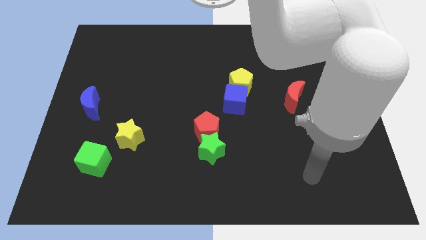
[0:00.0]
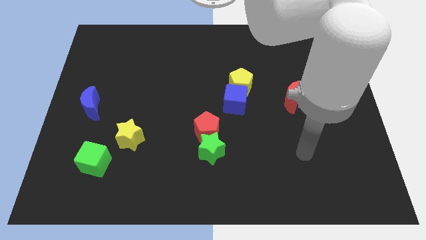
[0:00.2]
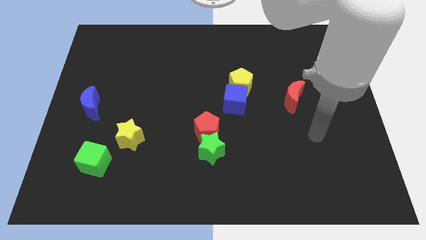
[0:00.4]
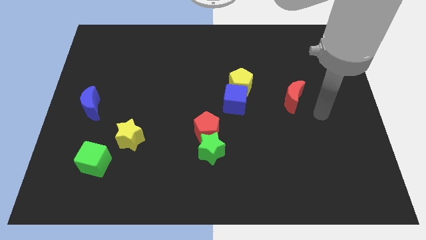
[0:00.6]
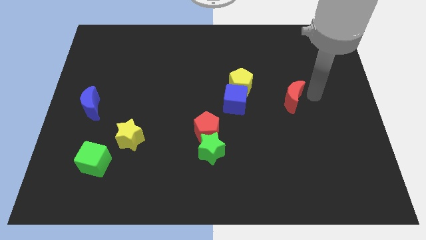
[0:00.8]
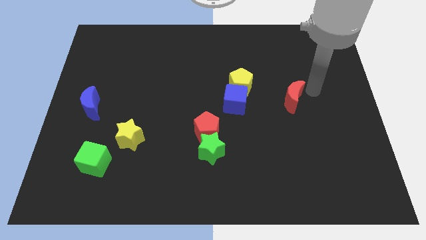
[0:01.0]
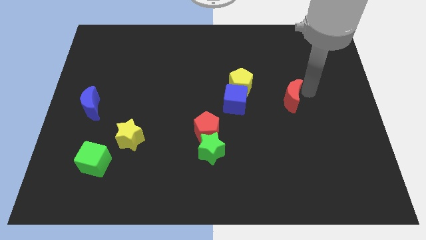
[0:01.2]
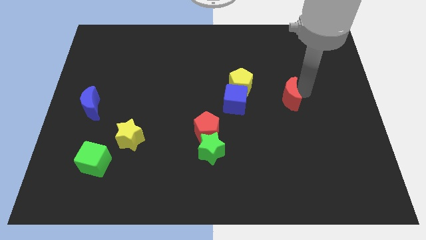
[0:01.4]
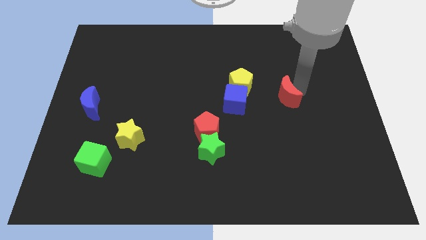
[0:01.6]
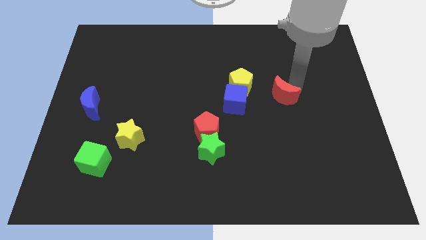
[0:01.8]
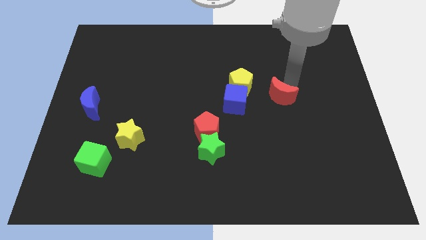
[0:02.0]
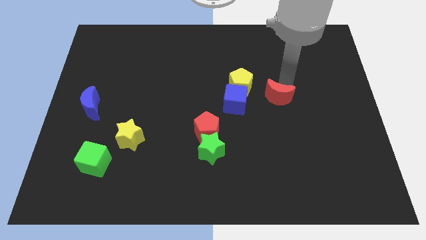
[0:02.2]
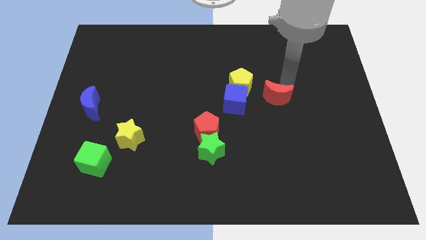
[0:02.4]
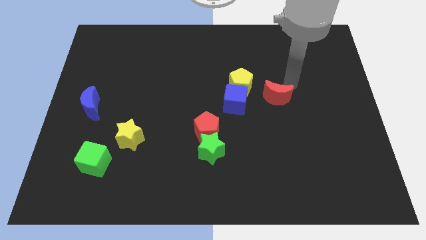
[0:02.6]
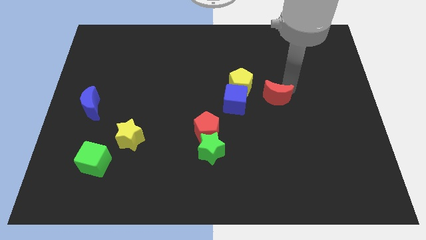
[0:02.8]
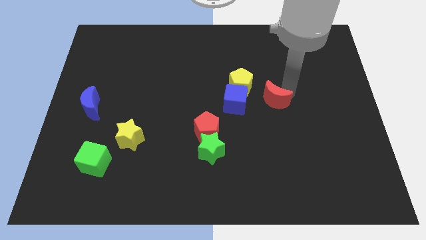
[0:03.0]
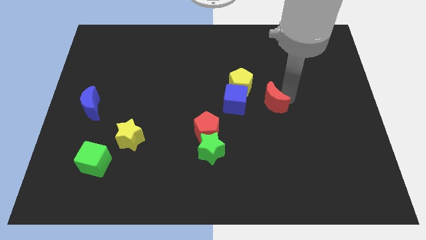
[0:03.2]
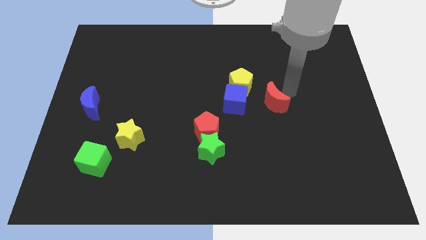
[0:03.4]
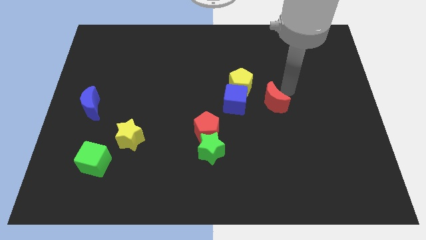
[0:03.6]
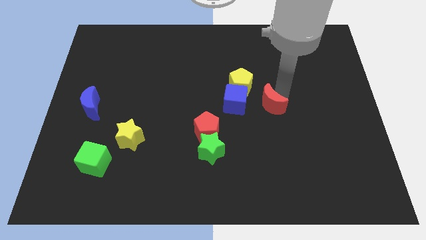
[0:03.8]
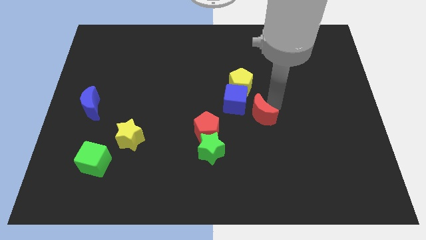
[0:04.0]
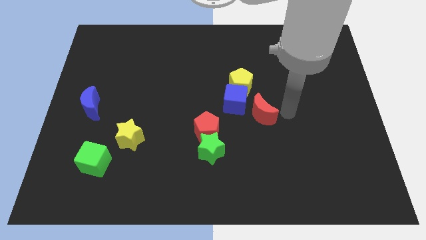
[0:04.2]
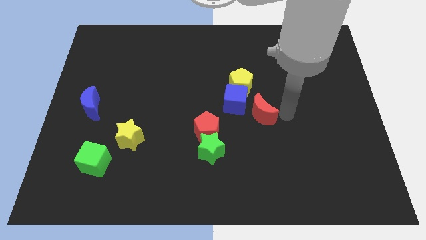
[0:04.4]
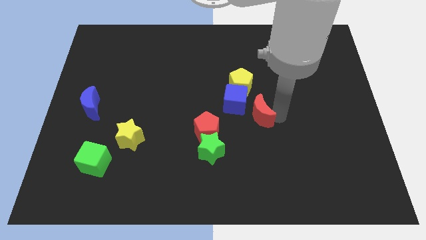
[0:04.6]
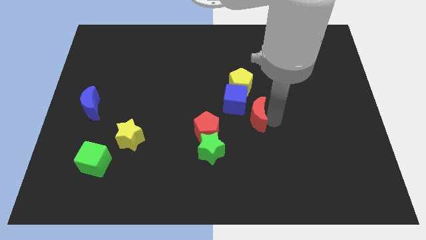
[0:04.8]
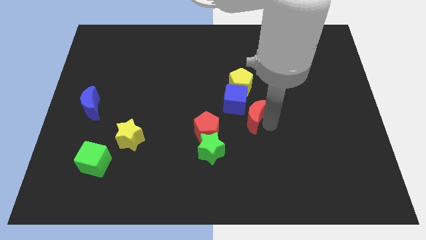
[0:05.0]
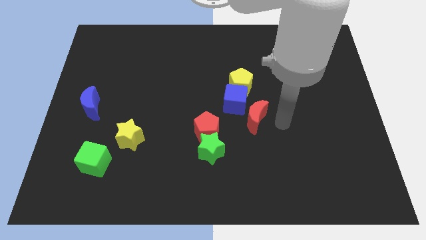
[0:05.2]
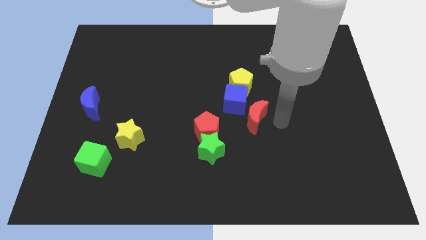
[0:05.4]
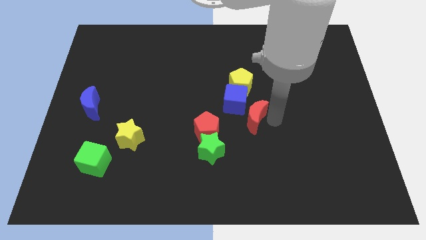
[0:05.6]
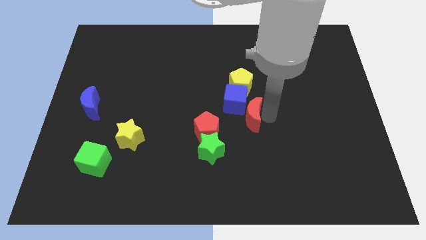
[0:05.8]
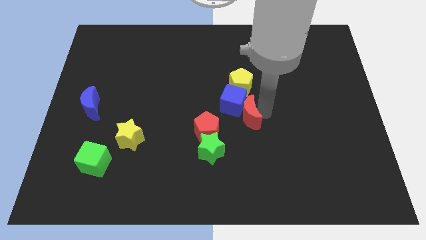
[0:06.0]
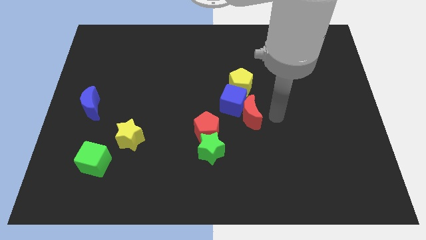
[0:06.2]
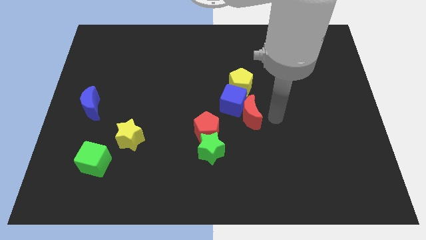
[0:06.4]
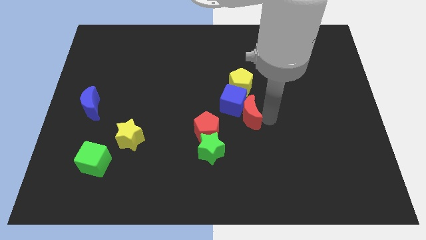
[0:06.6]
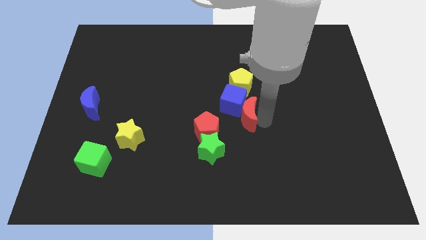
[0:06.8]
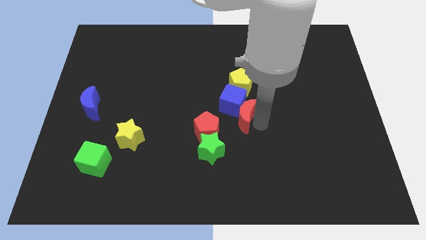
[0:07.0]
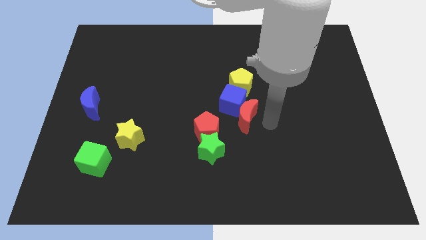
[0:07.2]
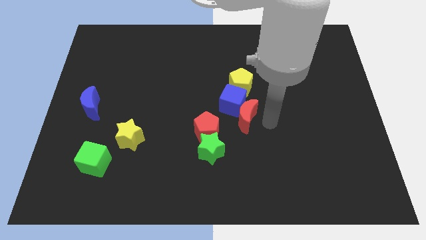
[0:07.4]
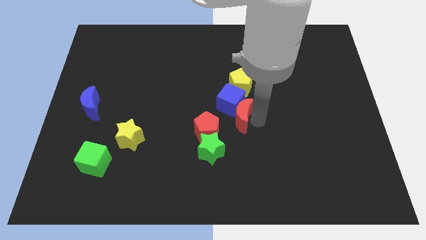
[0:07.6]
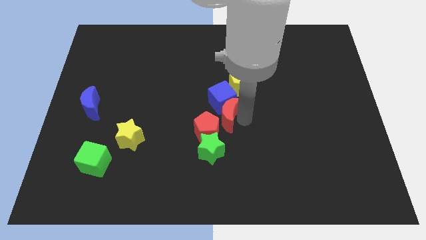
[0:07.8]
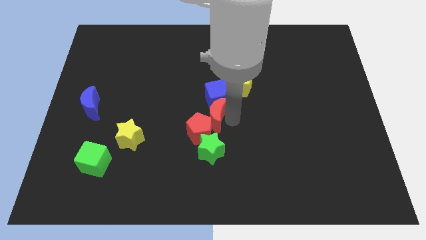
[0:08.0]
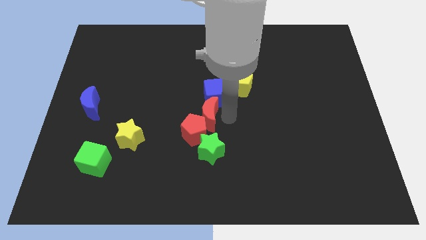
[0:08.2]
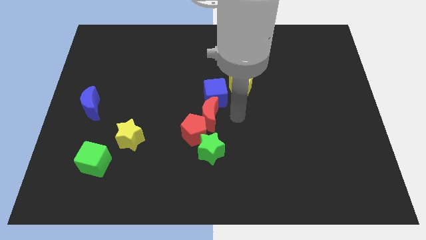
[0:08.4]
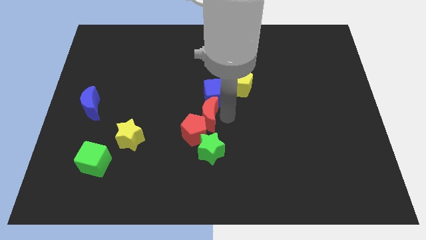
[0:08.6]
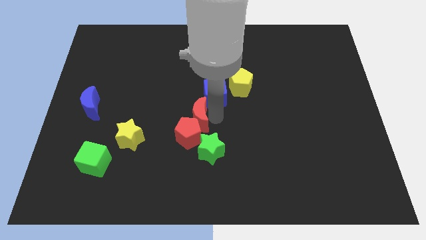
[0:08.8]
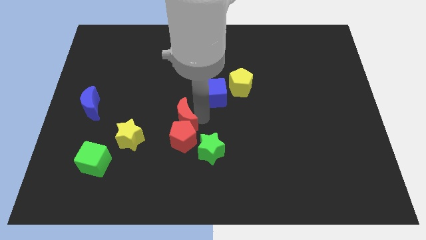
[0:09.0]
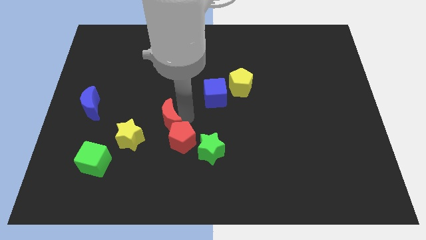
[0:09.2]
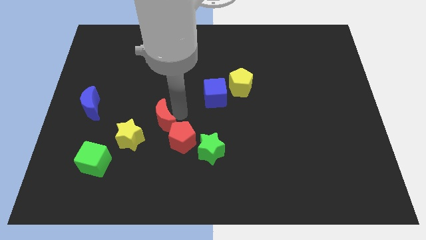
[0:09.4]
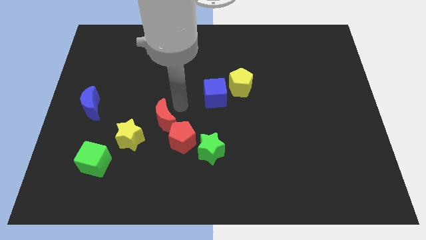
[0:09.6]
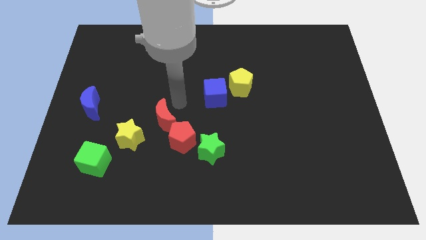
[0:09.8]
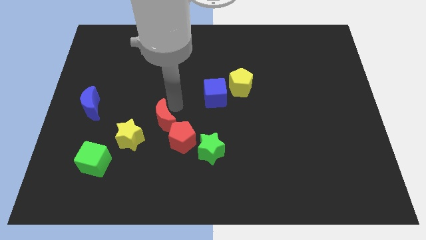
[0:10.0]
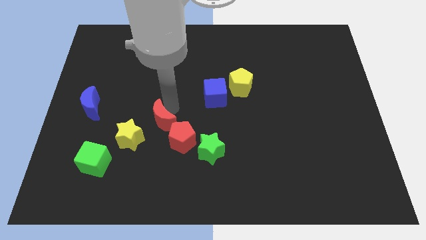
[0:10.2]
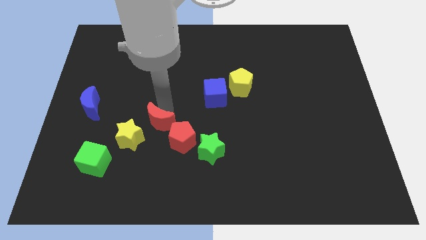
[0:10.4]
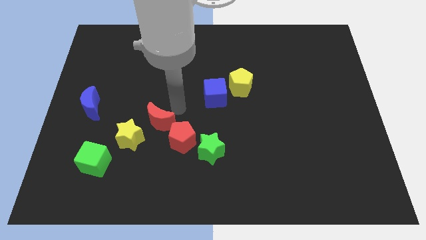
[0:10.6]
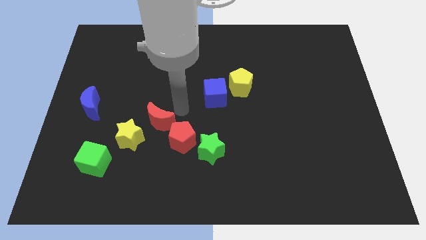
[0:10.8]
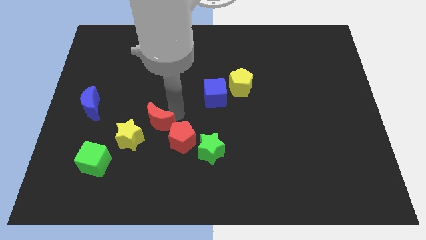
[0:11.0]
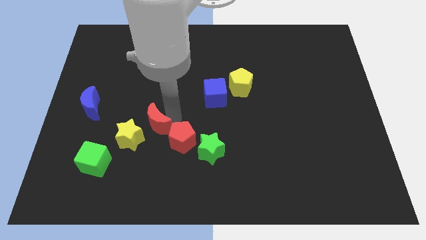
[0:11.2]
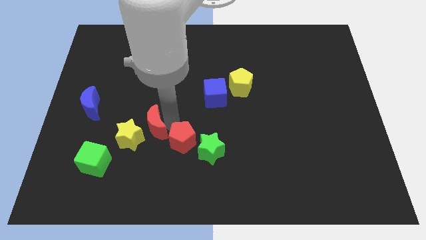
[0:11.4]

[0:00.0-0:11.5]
move the red moon towards the yellow star
